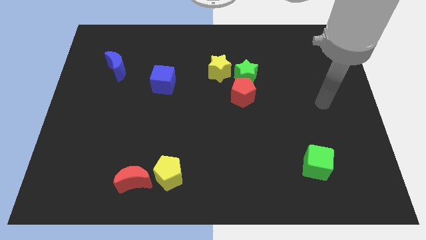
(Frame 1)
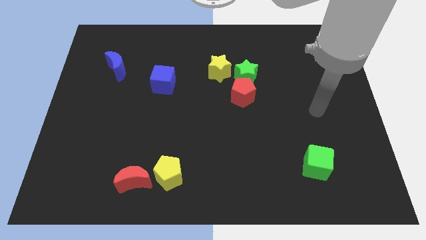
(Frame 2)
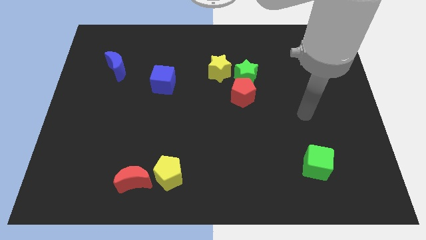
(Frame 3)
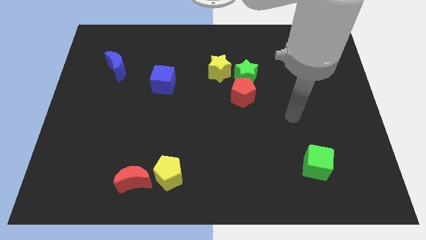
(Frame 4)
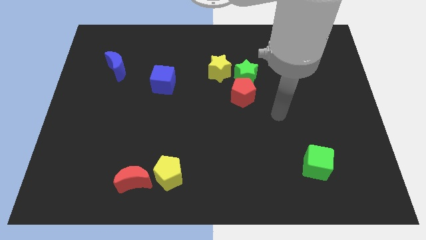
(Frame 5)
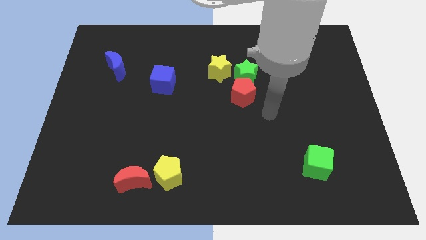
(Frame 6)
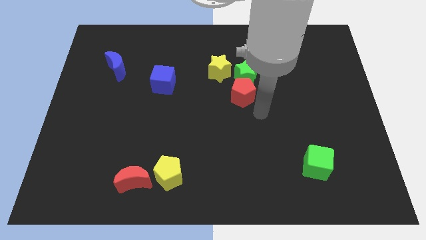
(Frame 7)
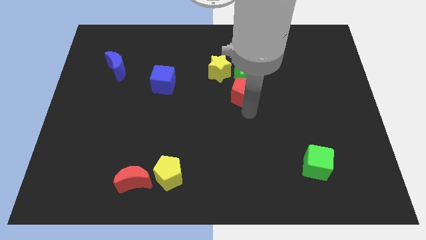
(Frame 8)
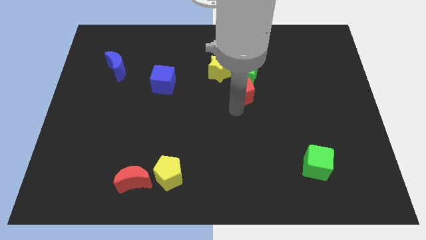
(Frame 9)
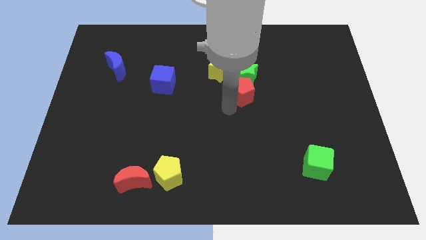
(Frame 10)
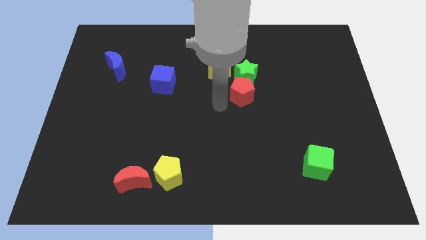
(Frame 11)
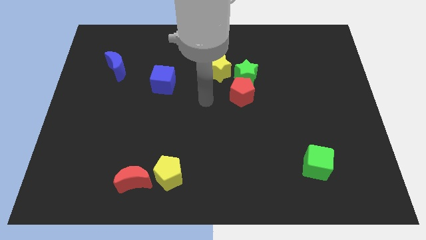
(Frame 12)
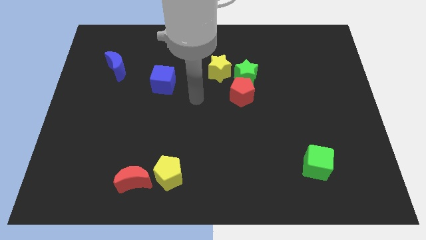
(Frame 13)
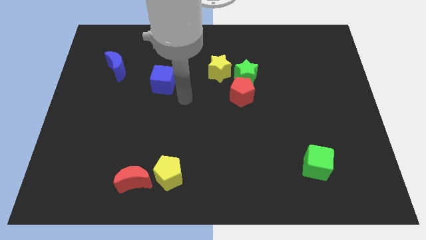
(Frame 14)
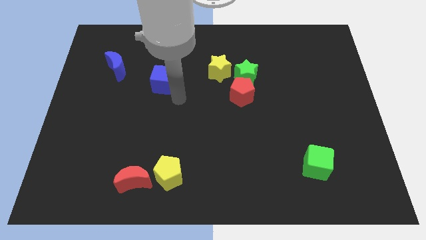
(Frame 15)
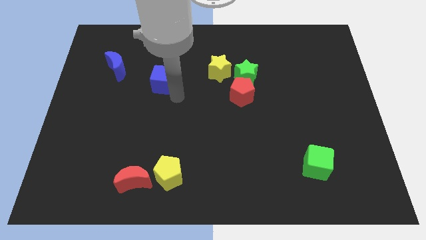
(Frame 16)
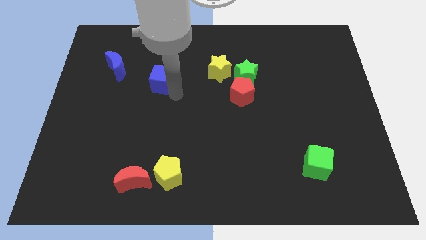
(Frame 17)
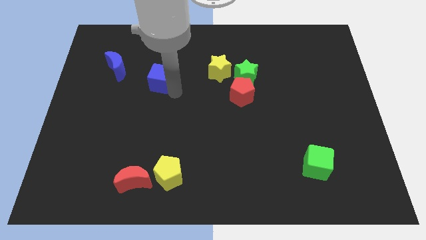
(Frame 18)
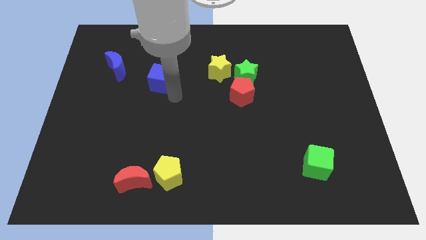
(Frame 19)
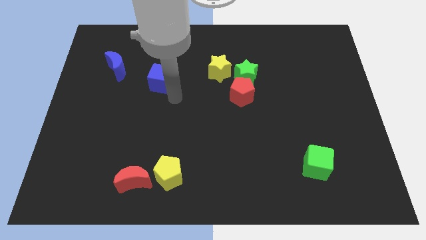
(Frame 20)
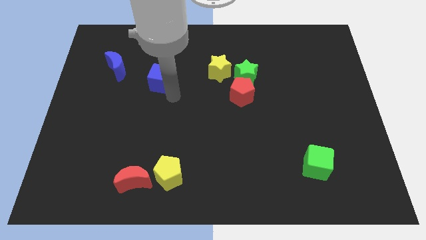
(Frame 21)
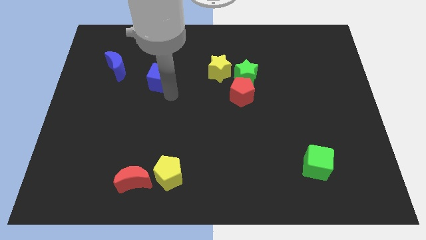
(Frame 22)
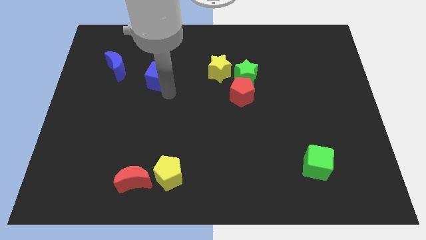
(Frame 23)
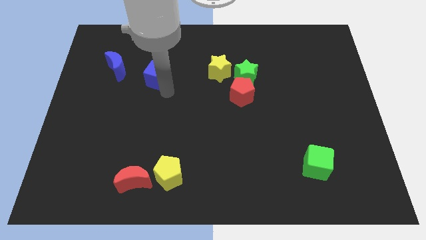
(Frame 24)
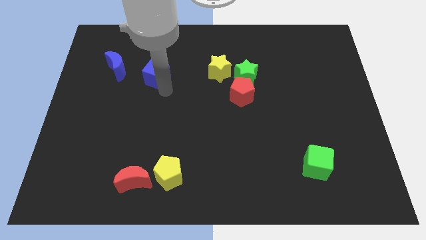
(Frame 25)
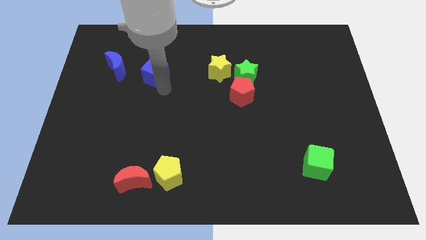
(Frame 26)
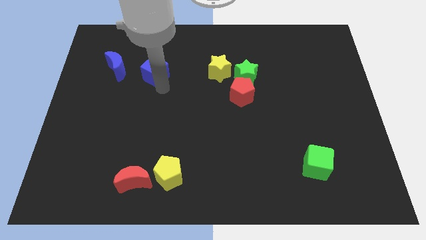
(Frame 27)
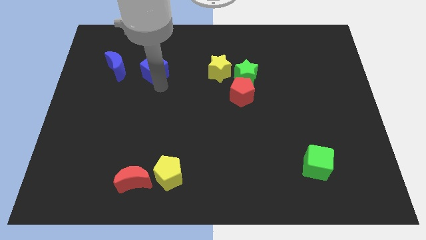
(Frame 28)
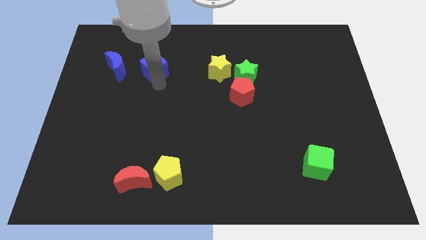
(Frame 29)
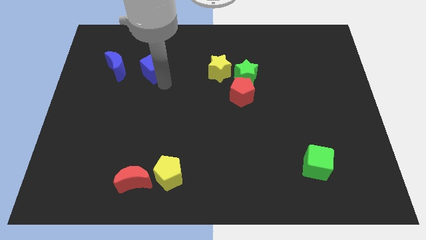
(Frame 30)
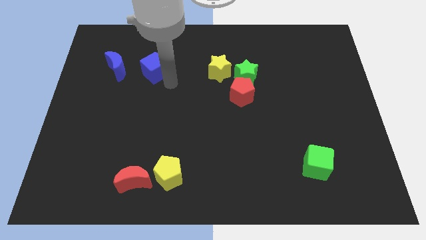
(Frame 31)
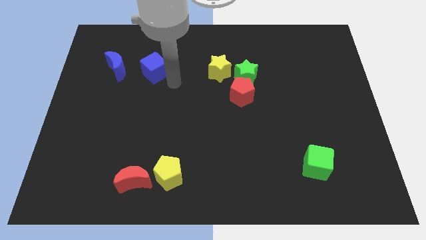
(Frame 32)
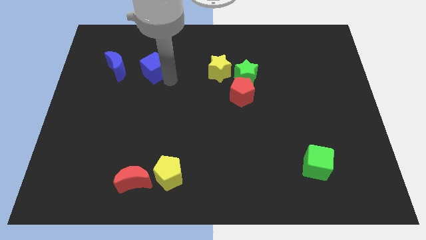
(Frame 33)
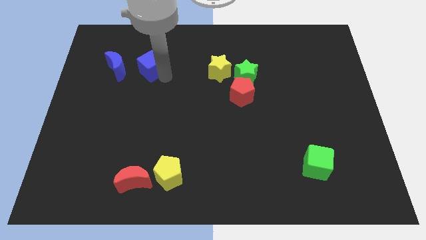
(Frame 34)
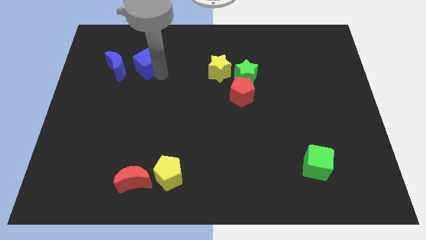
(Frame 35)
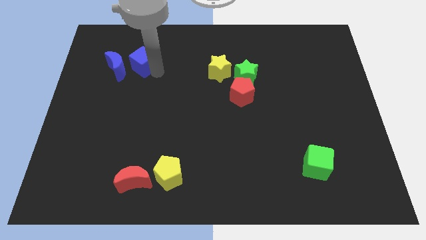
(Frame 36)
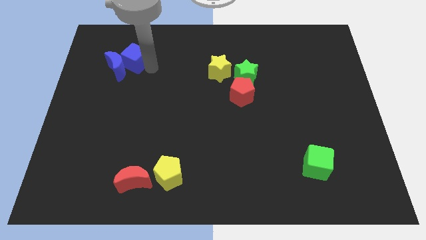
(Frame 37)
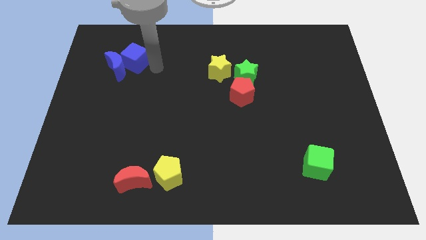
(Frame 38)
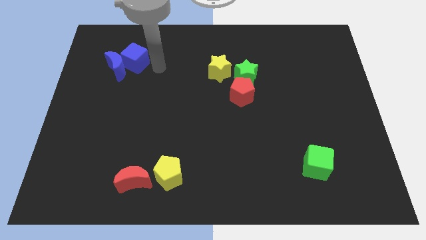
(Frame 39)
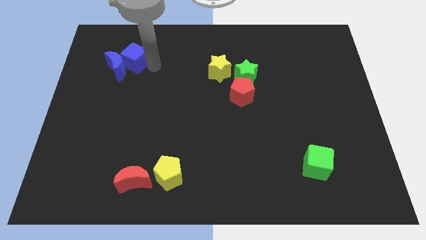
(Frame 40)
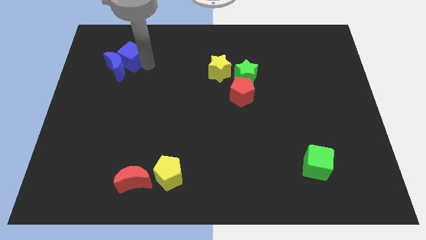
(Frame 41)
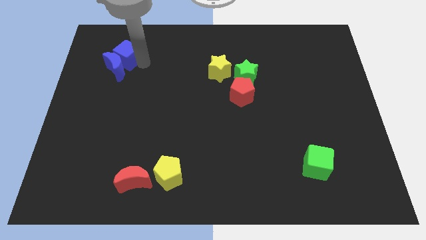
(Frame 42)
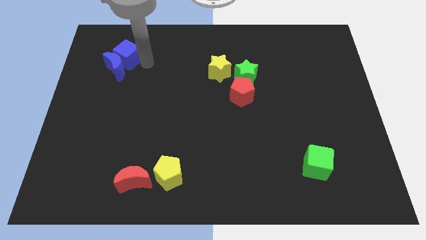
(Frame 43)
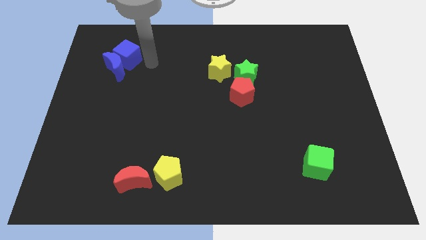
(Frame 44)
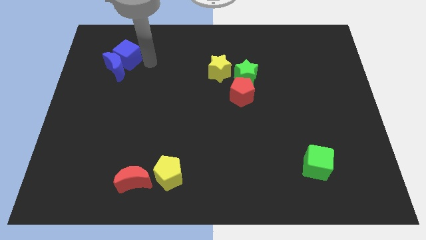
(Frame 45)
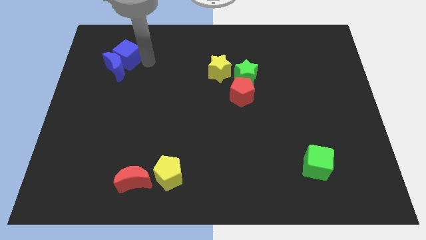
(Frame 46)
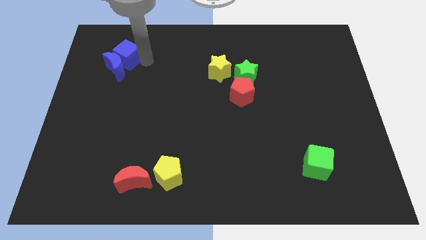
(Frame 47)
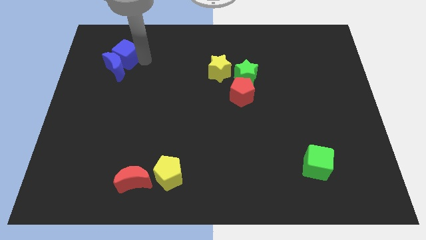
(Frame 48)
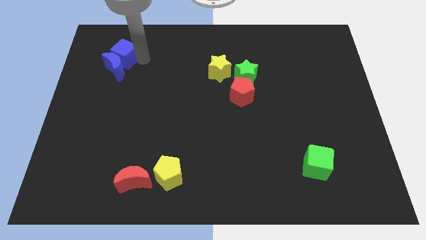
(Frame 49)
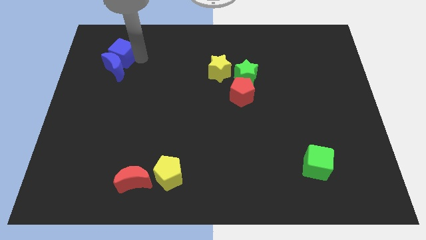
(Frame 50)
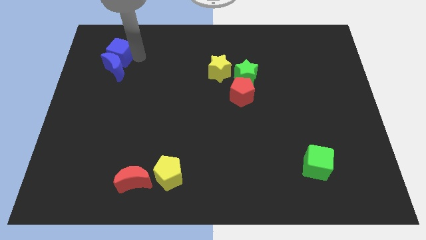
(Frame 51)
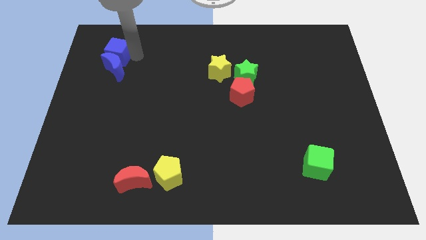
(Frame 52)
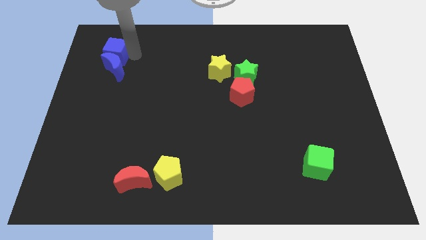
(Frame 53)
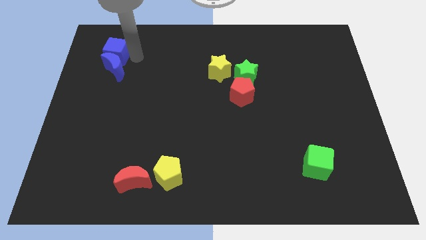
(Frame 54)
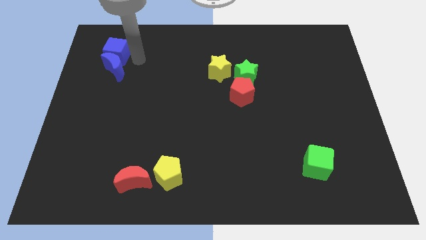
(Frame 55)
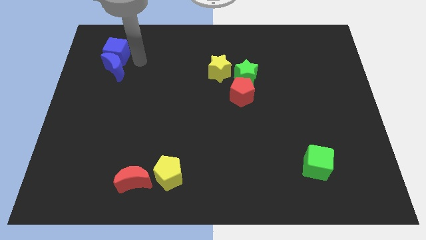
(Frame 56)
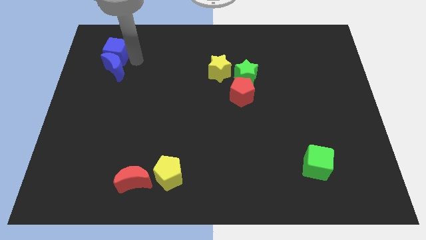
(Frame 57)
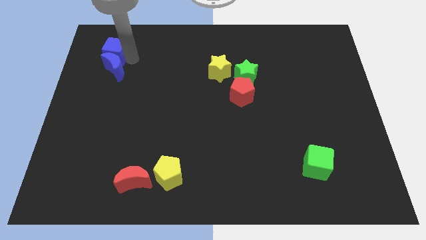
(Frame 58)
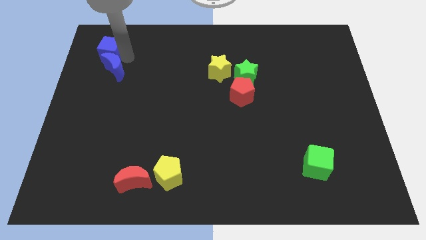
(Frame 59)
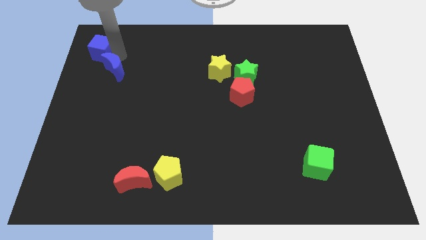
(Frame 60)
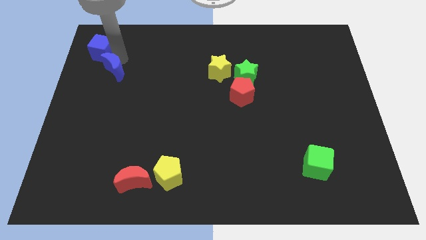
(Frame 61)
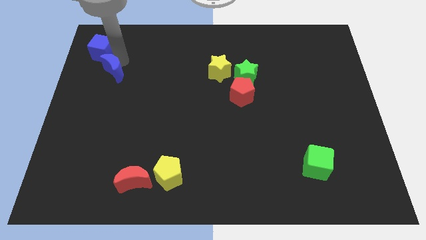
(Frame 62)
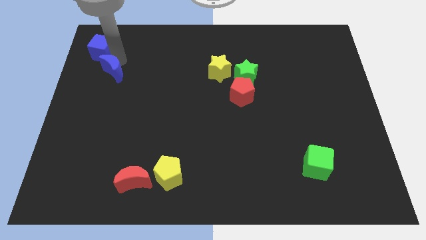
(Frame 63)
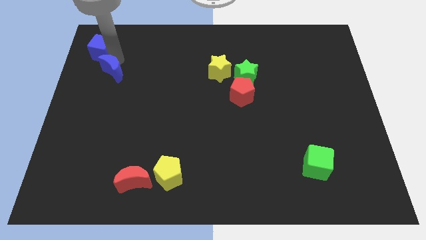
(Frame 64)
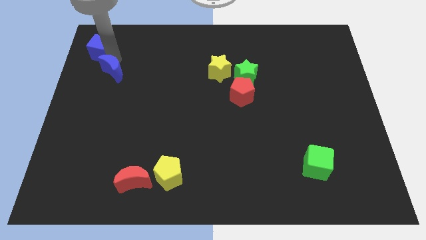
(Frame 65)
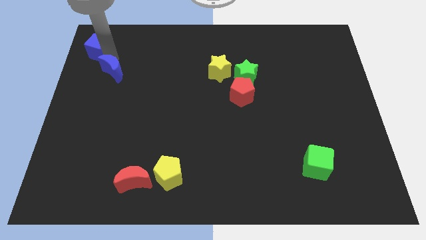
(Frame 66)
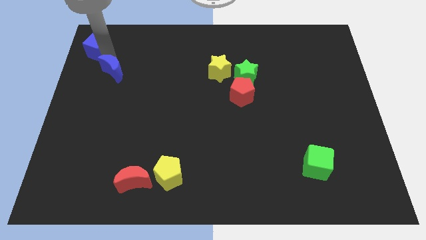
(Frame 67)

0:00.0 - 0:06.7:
move the blue cube to the top left
